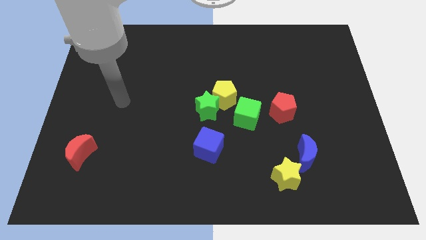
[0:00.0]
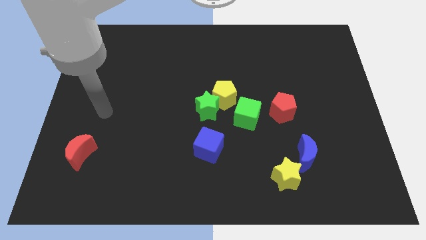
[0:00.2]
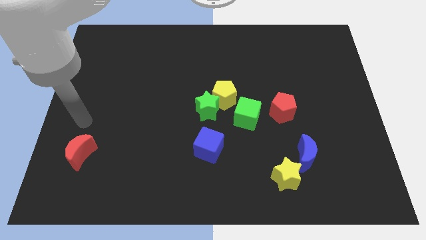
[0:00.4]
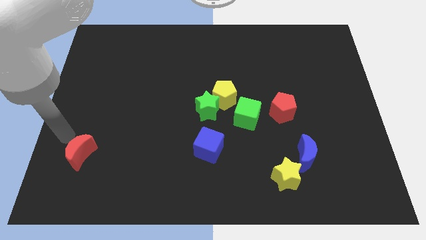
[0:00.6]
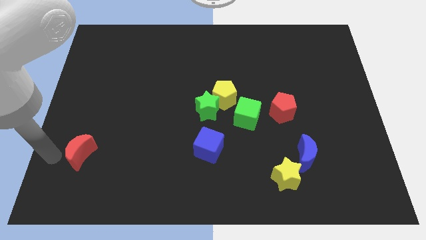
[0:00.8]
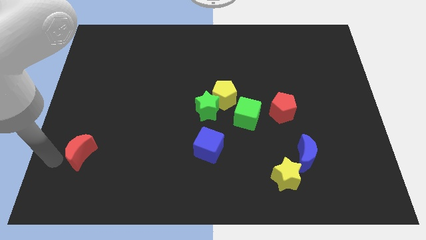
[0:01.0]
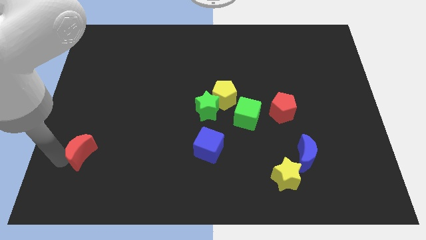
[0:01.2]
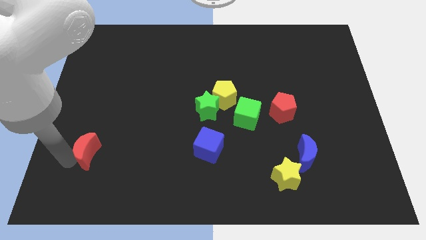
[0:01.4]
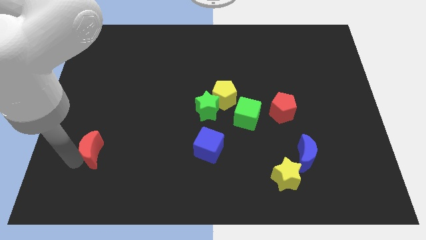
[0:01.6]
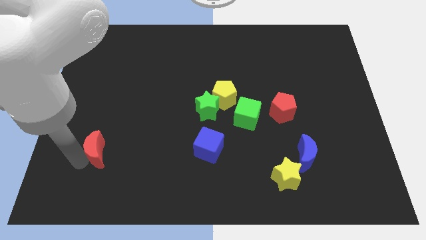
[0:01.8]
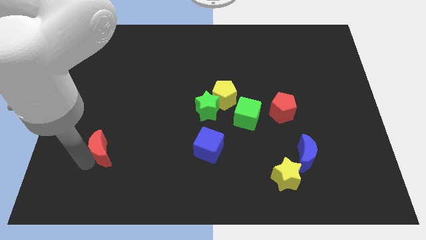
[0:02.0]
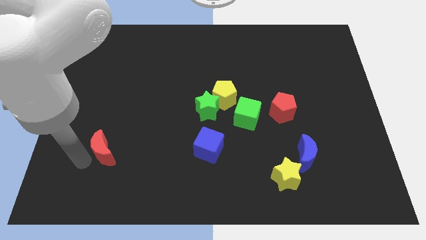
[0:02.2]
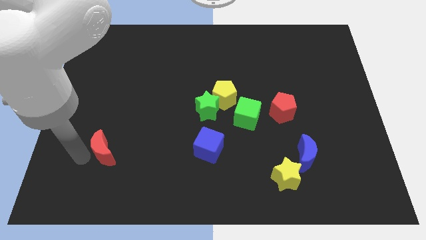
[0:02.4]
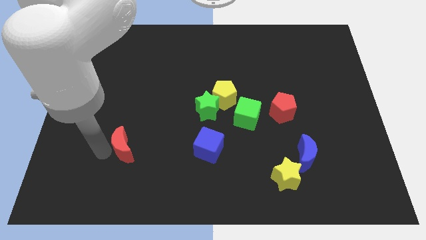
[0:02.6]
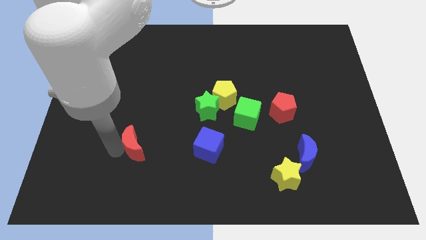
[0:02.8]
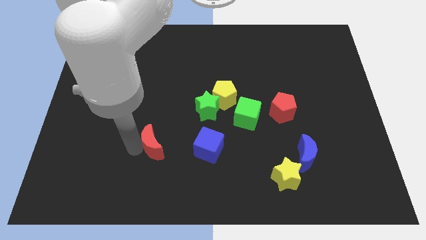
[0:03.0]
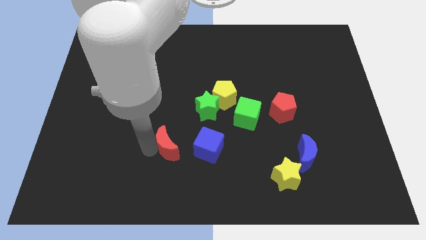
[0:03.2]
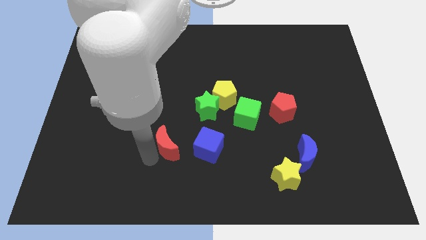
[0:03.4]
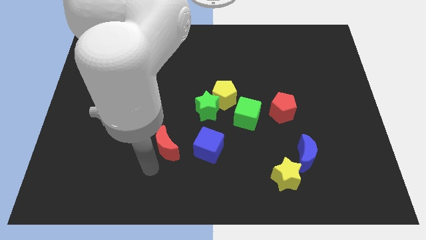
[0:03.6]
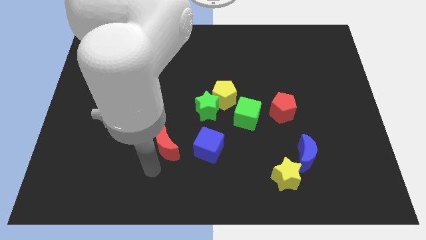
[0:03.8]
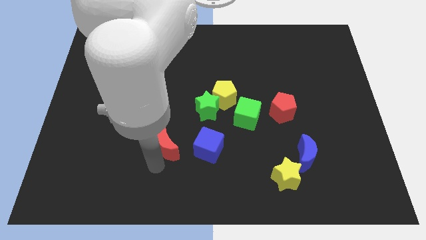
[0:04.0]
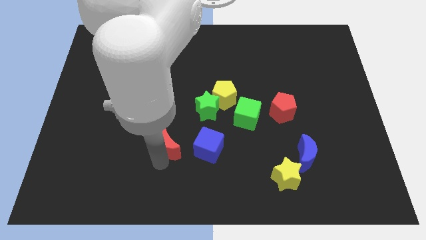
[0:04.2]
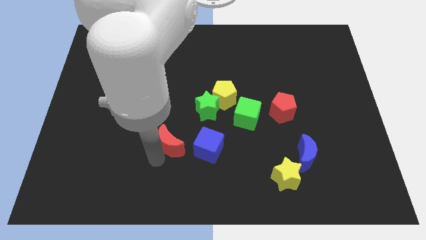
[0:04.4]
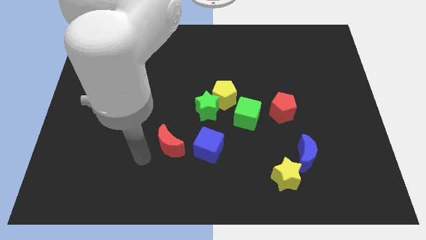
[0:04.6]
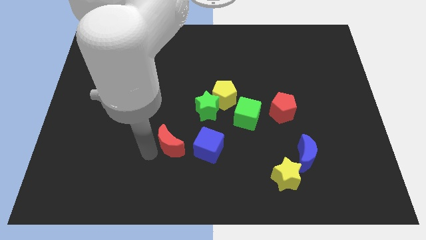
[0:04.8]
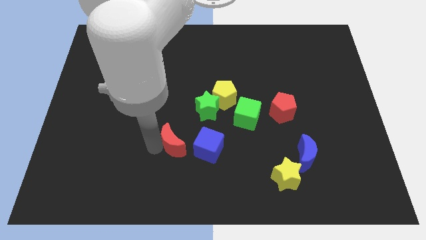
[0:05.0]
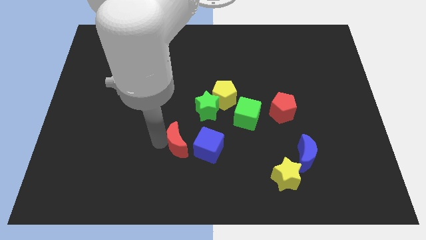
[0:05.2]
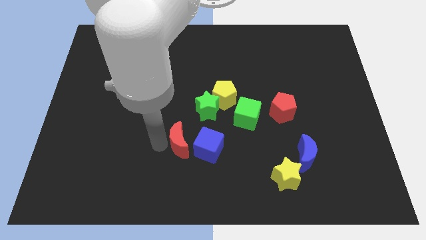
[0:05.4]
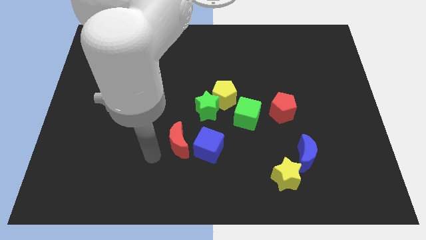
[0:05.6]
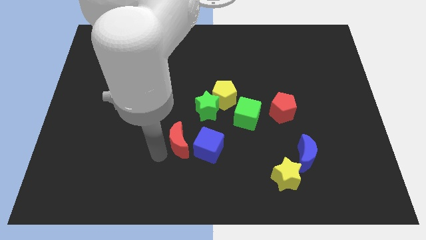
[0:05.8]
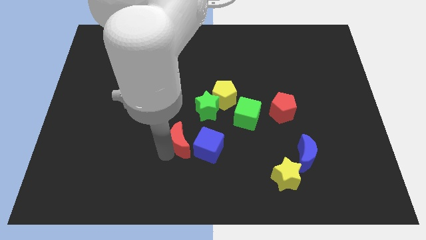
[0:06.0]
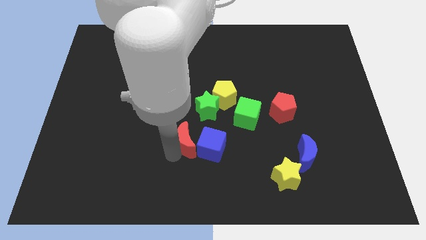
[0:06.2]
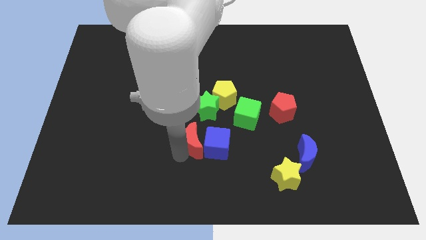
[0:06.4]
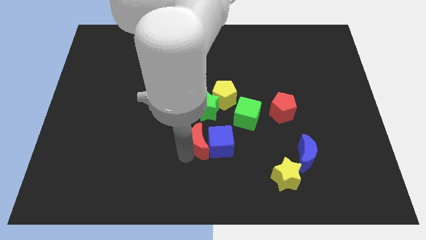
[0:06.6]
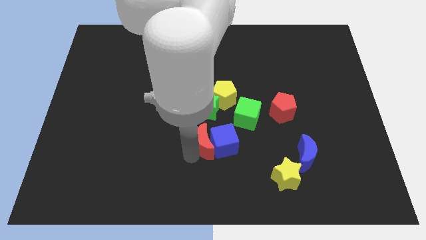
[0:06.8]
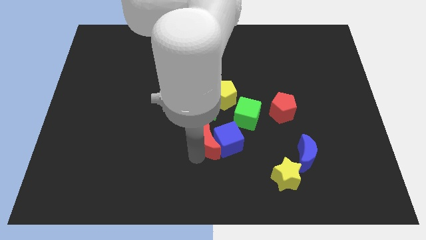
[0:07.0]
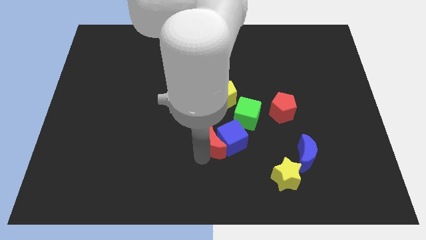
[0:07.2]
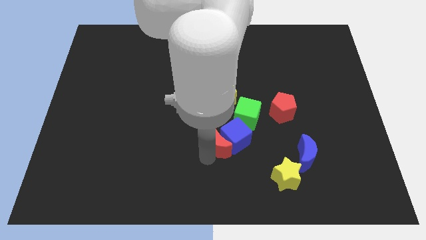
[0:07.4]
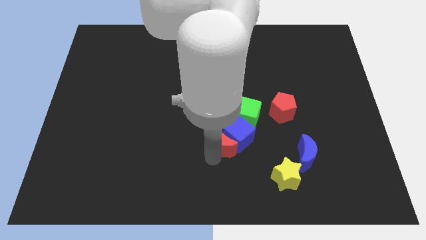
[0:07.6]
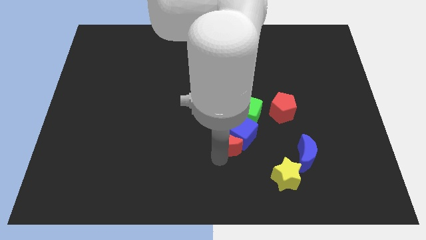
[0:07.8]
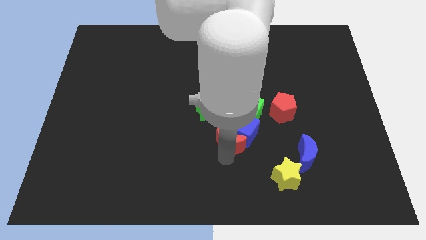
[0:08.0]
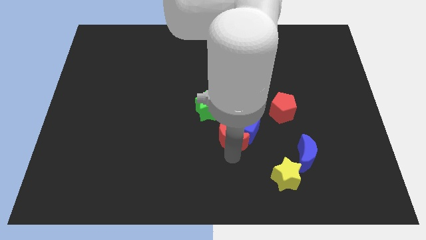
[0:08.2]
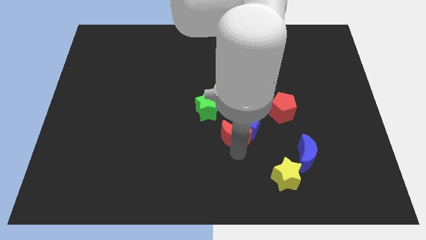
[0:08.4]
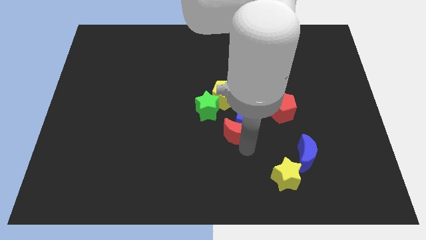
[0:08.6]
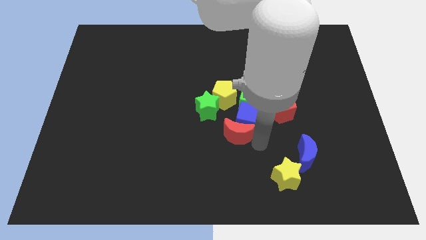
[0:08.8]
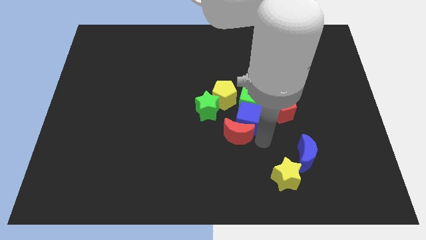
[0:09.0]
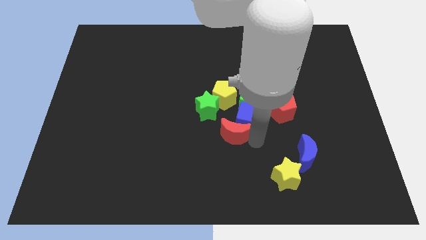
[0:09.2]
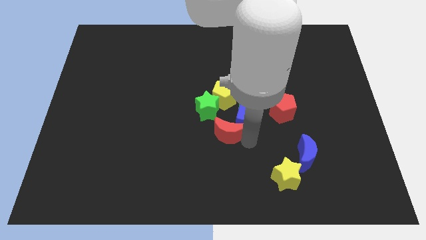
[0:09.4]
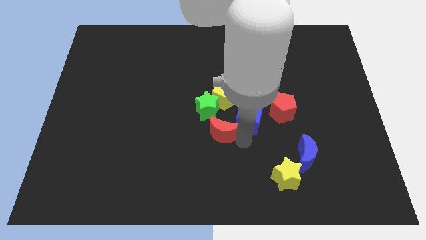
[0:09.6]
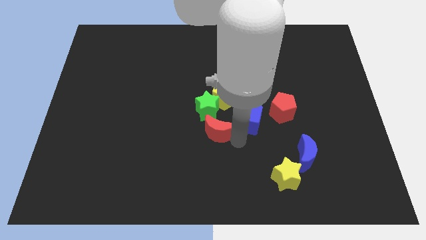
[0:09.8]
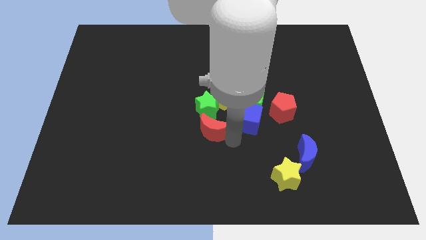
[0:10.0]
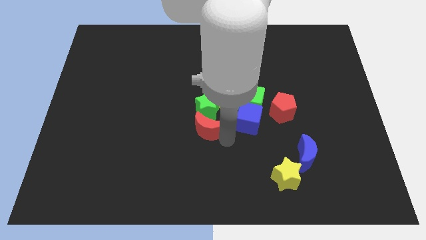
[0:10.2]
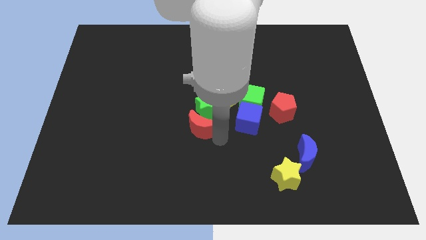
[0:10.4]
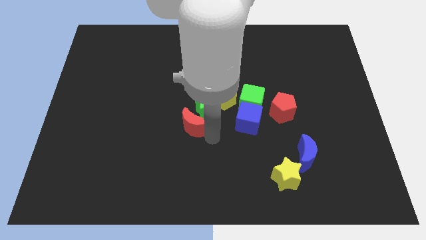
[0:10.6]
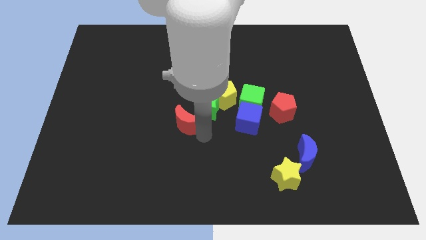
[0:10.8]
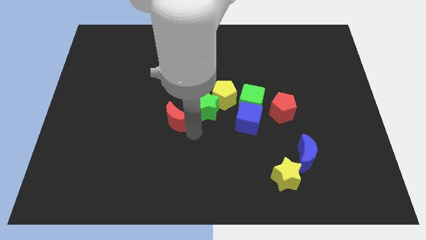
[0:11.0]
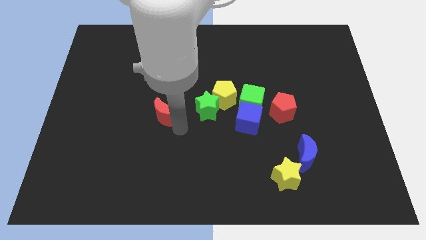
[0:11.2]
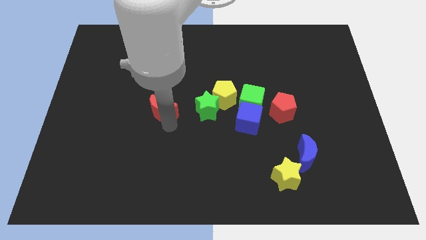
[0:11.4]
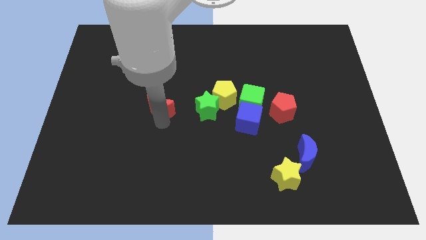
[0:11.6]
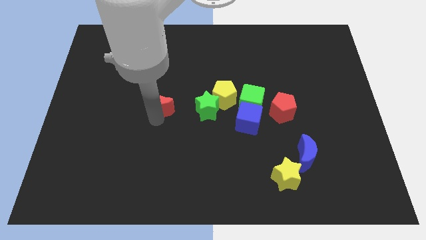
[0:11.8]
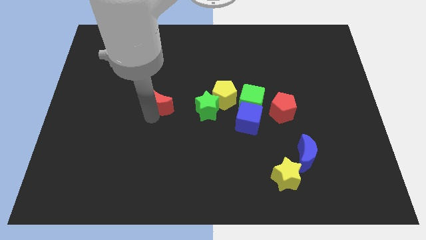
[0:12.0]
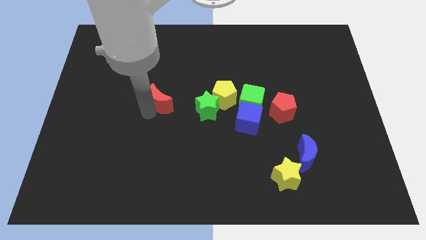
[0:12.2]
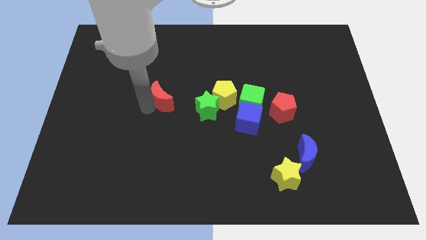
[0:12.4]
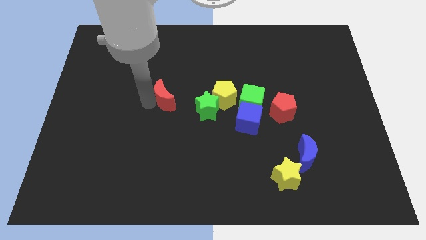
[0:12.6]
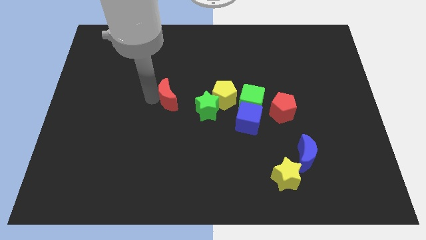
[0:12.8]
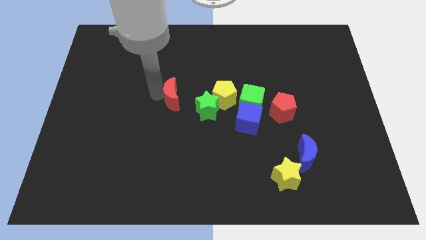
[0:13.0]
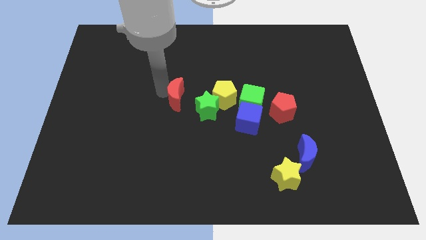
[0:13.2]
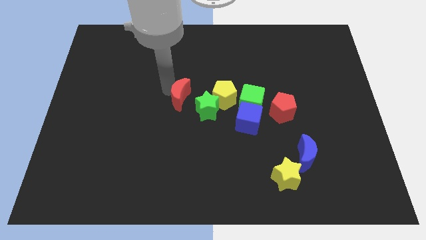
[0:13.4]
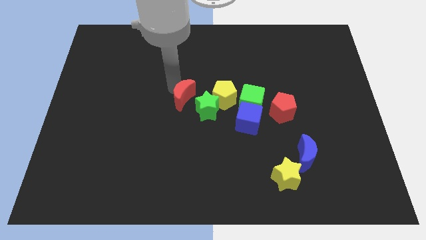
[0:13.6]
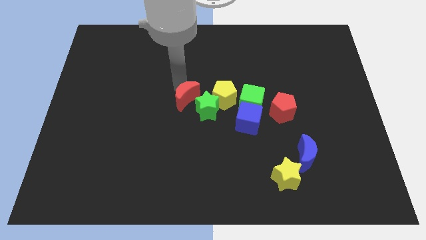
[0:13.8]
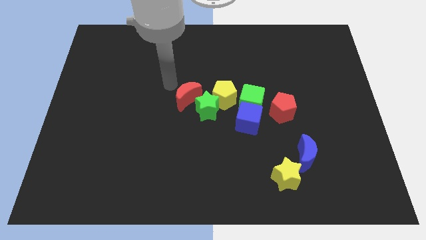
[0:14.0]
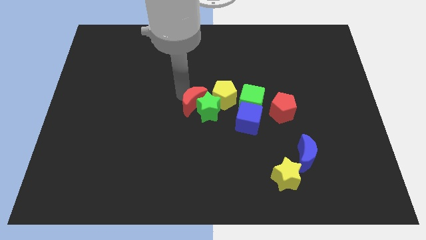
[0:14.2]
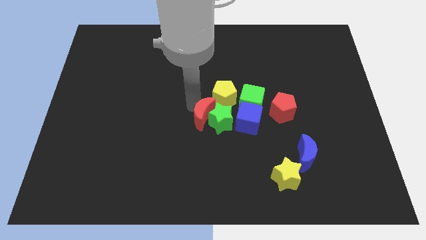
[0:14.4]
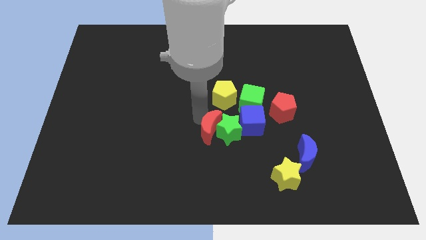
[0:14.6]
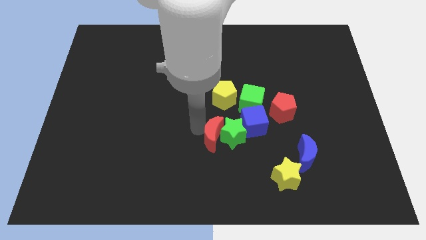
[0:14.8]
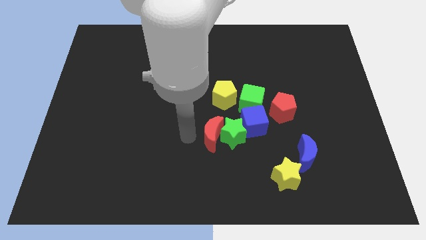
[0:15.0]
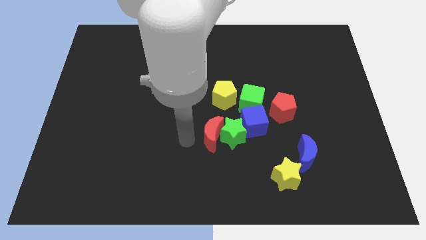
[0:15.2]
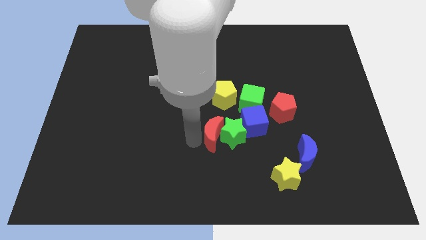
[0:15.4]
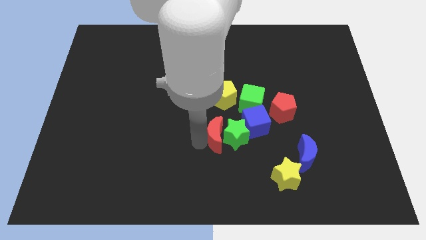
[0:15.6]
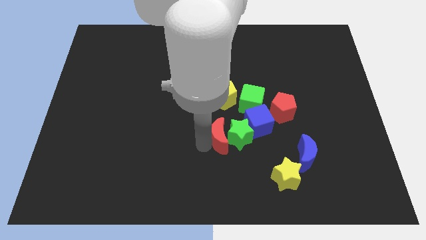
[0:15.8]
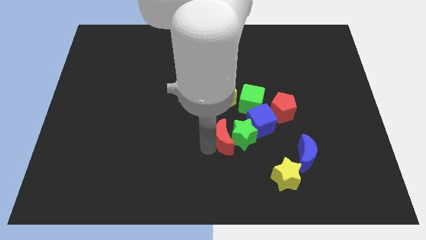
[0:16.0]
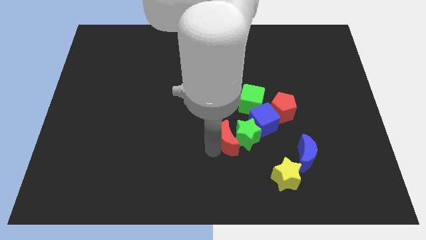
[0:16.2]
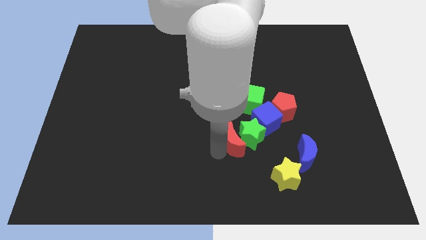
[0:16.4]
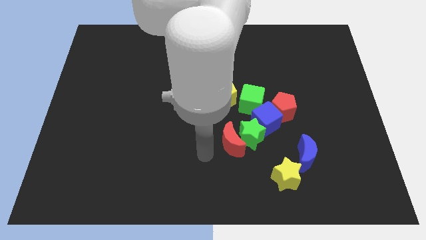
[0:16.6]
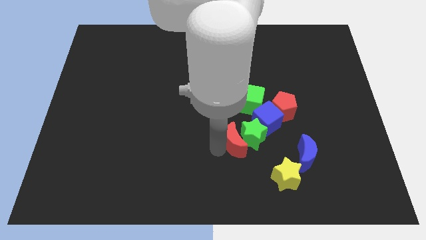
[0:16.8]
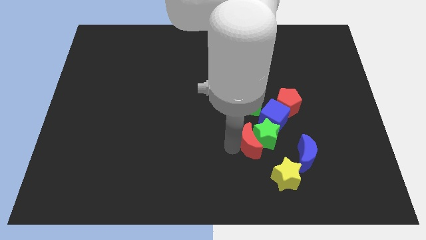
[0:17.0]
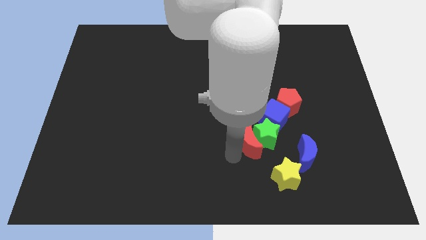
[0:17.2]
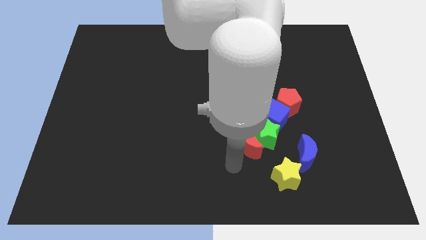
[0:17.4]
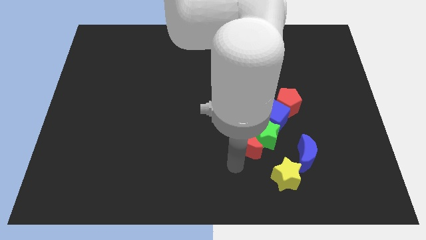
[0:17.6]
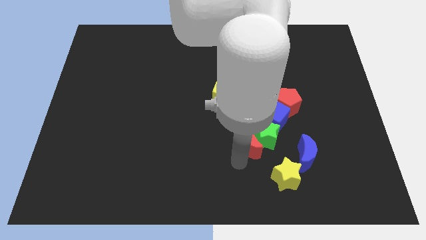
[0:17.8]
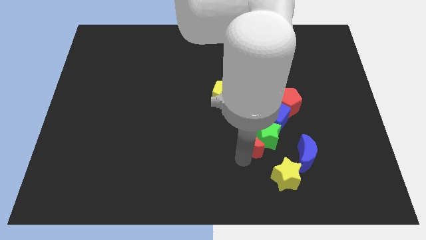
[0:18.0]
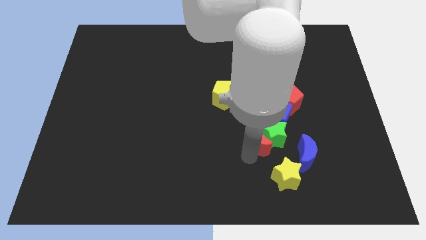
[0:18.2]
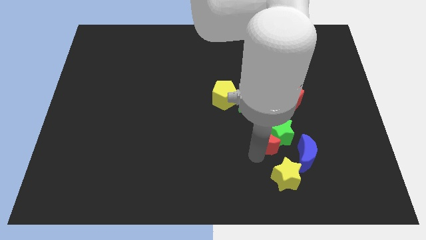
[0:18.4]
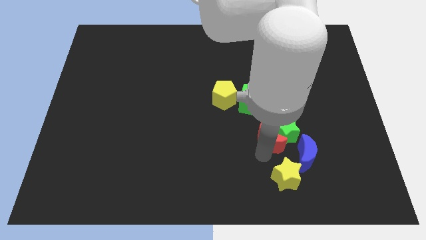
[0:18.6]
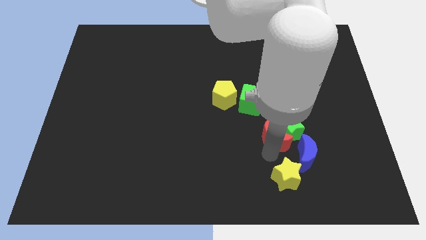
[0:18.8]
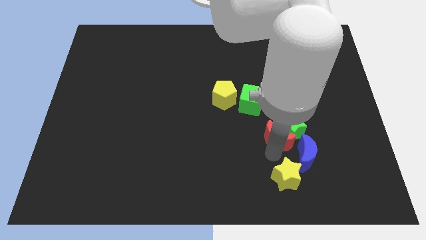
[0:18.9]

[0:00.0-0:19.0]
push the red moon diagonally down and to the right of the green cube
